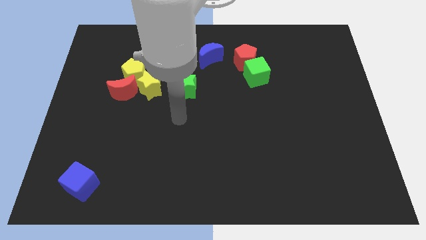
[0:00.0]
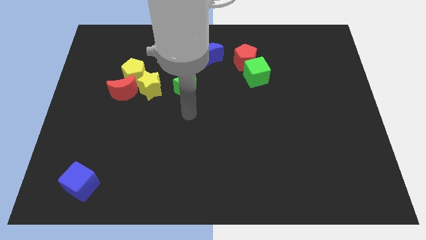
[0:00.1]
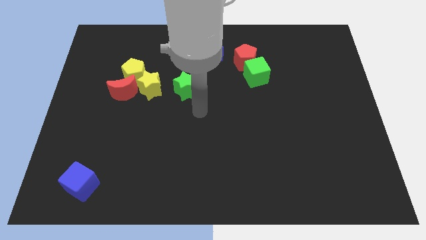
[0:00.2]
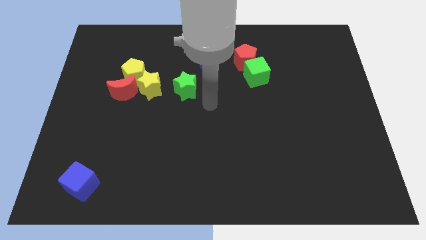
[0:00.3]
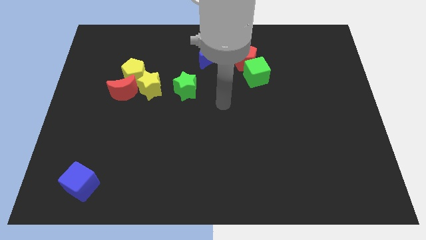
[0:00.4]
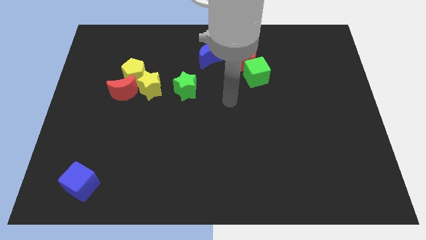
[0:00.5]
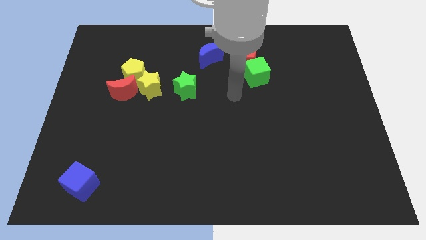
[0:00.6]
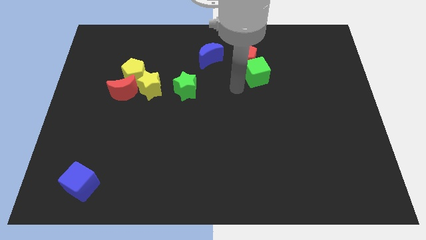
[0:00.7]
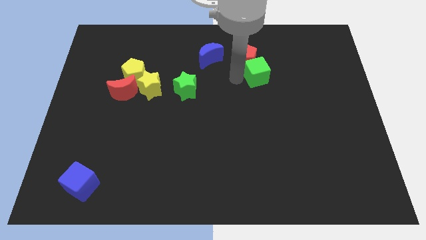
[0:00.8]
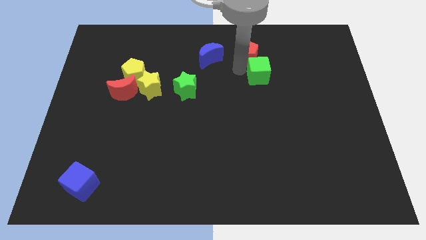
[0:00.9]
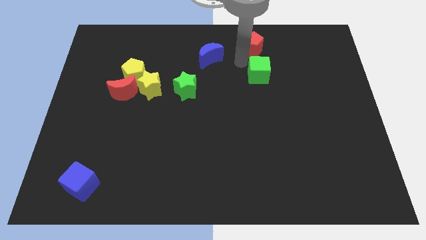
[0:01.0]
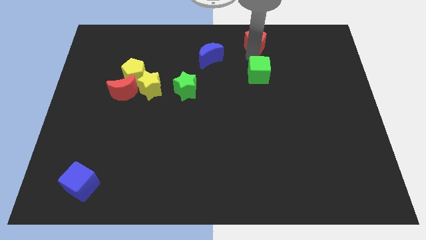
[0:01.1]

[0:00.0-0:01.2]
separate the green cube from the red pentagon

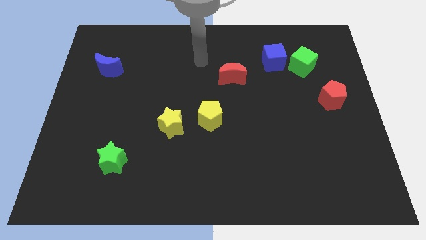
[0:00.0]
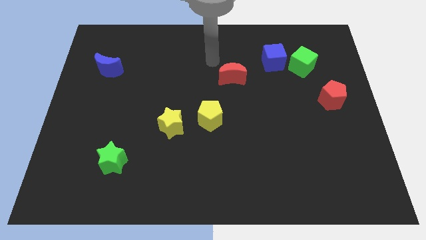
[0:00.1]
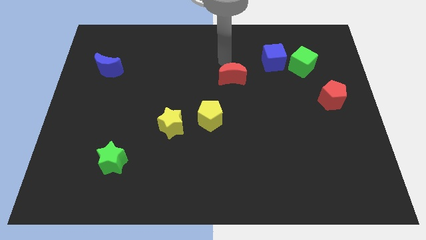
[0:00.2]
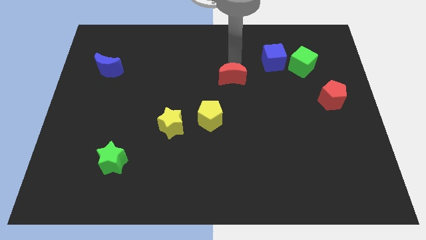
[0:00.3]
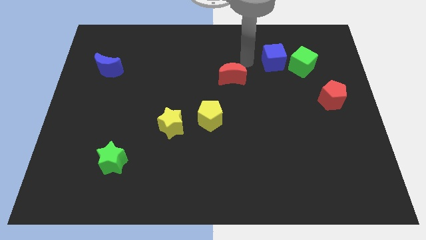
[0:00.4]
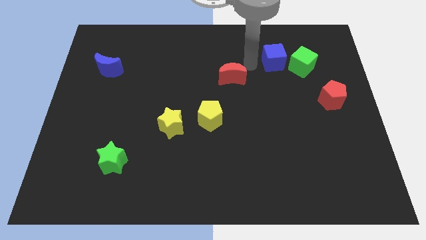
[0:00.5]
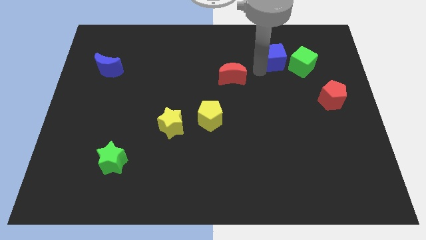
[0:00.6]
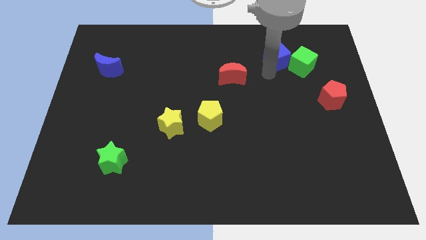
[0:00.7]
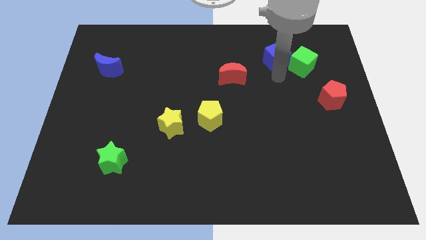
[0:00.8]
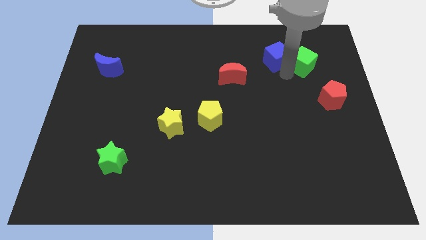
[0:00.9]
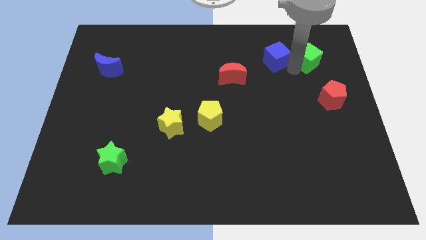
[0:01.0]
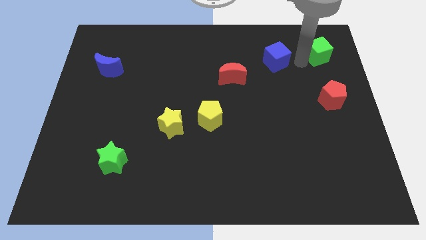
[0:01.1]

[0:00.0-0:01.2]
move the blue cube away from the green cube

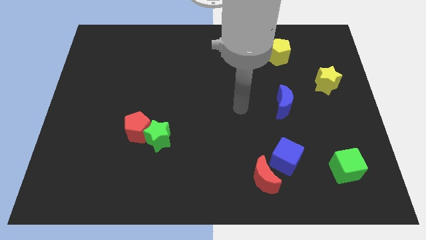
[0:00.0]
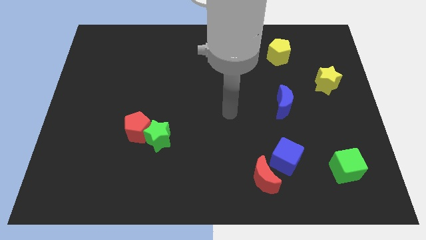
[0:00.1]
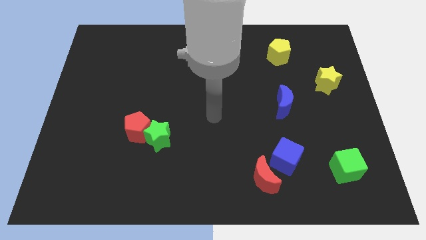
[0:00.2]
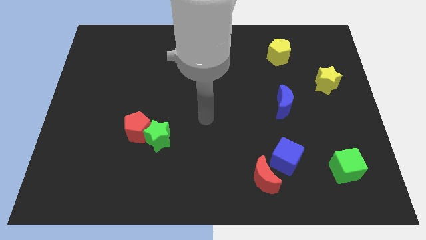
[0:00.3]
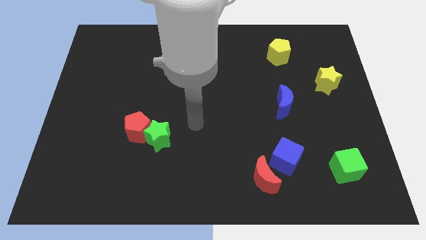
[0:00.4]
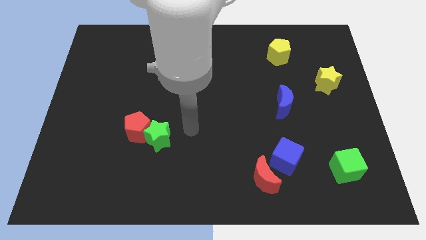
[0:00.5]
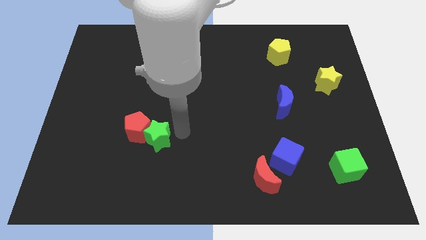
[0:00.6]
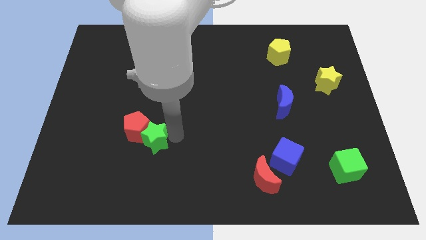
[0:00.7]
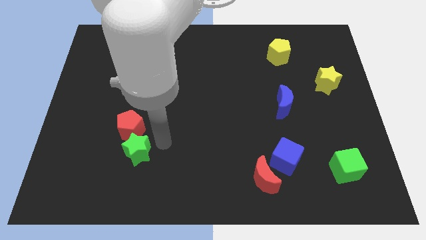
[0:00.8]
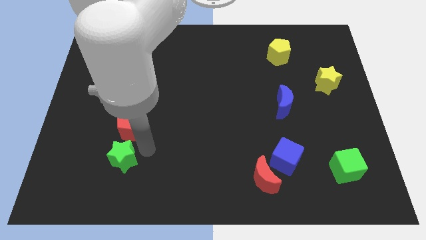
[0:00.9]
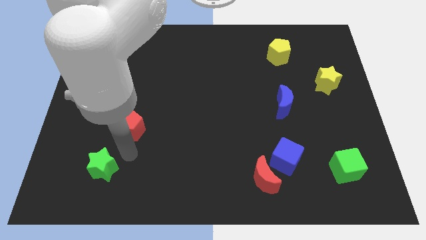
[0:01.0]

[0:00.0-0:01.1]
pull the red pentagon apart from the green star

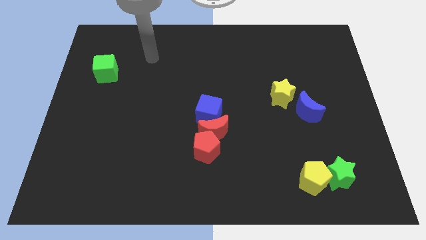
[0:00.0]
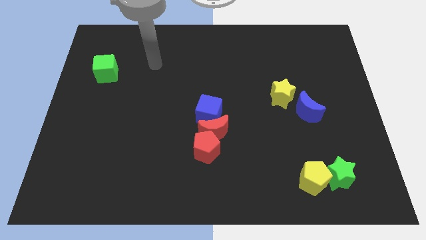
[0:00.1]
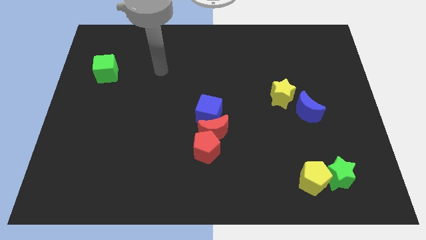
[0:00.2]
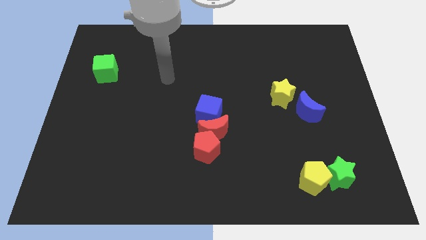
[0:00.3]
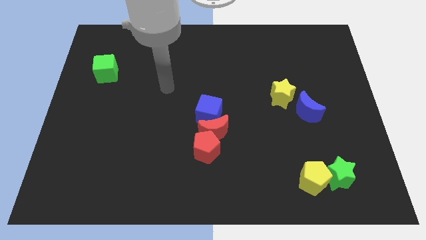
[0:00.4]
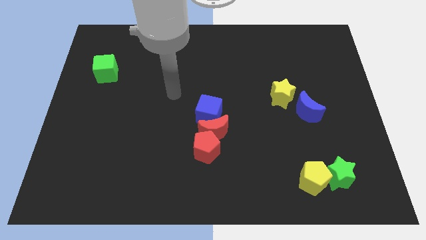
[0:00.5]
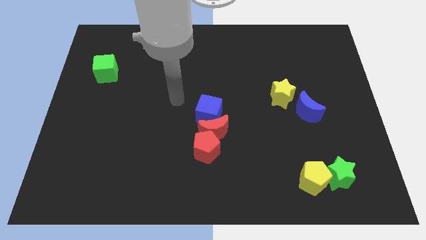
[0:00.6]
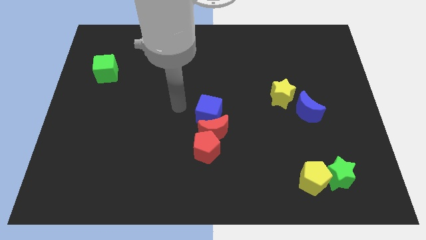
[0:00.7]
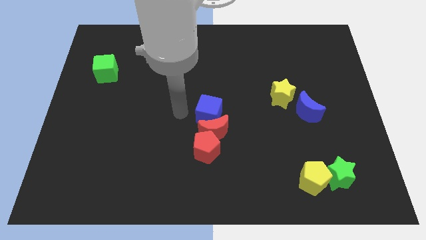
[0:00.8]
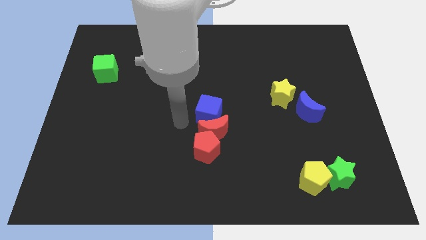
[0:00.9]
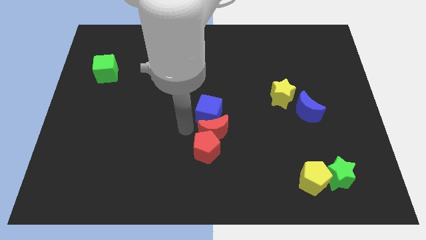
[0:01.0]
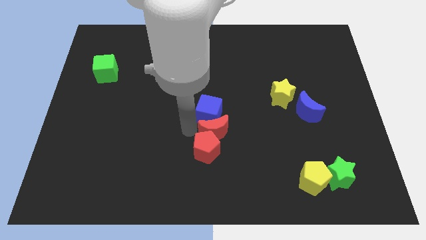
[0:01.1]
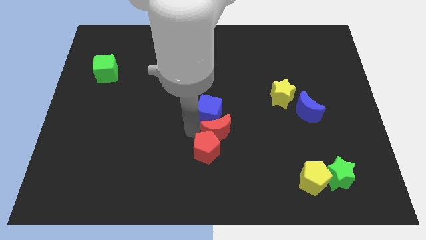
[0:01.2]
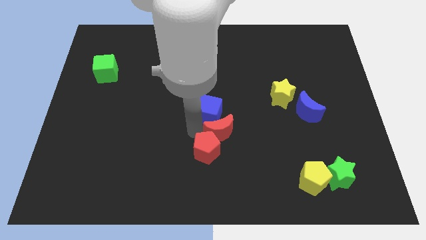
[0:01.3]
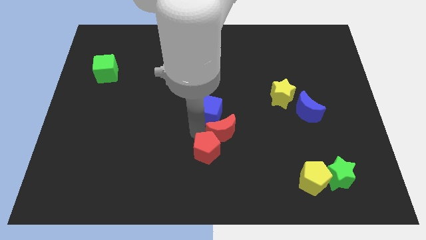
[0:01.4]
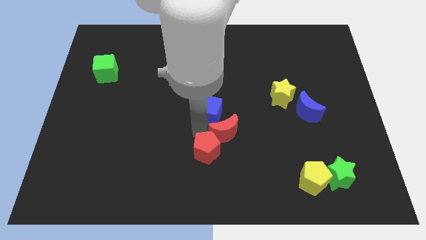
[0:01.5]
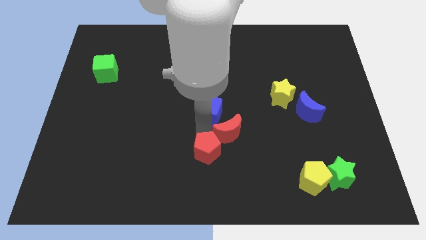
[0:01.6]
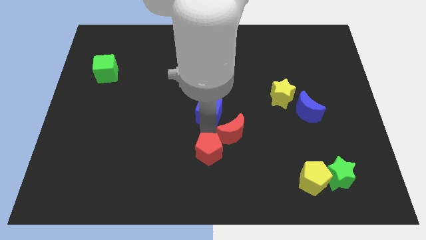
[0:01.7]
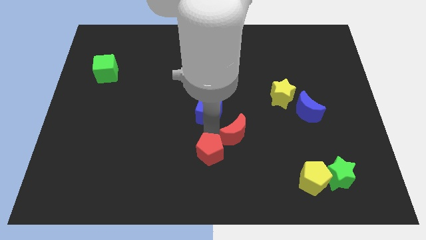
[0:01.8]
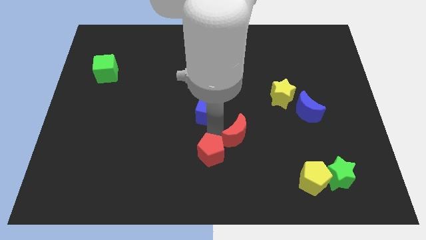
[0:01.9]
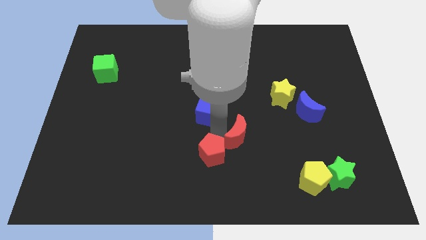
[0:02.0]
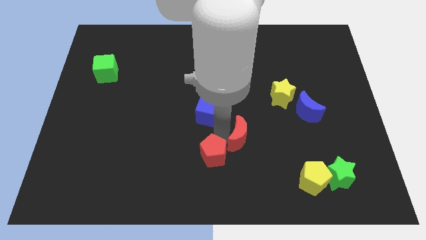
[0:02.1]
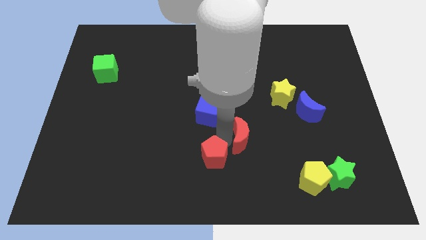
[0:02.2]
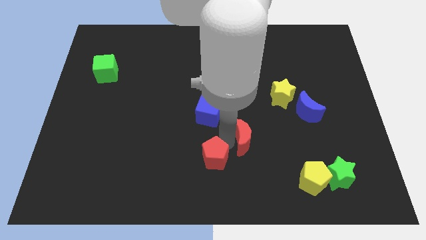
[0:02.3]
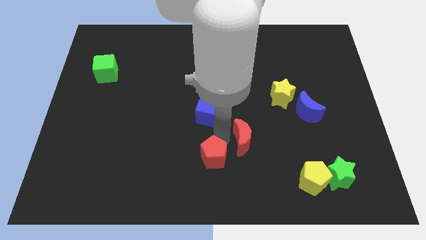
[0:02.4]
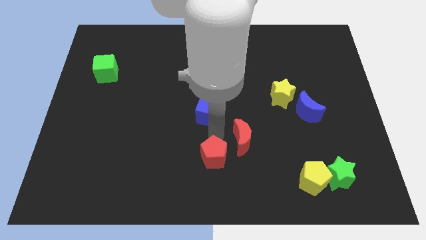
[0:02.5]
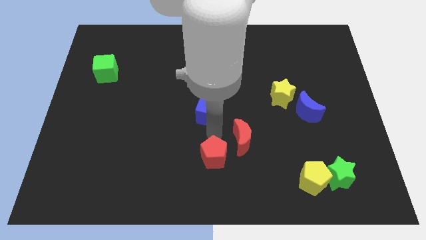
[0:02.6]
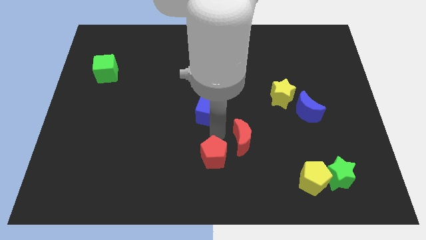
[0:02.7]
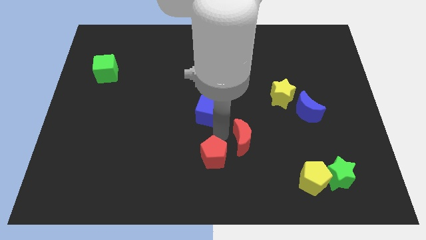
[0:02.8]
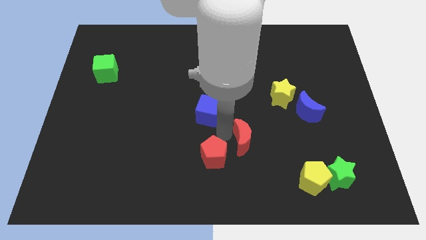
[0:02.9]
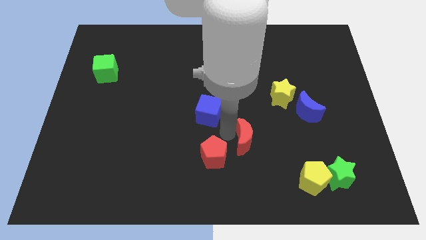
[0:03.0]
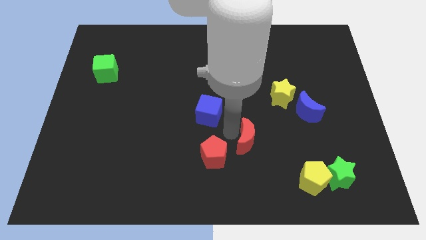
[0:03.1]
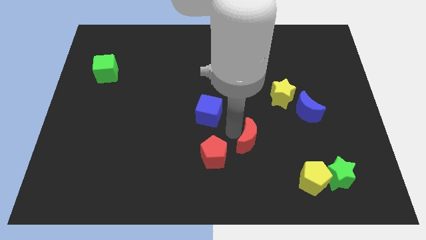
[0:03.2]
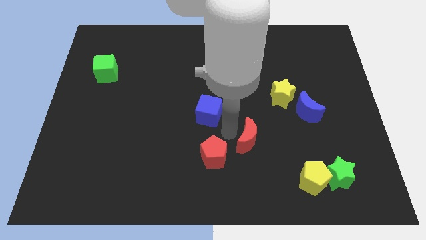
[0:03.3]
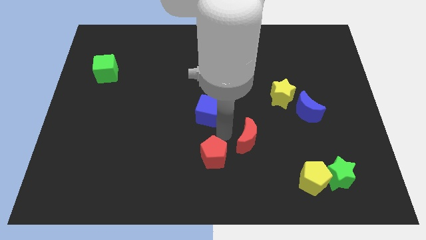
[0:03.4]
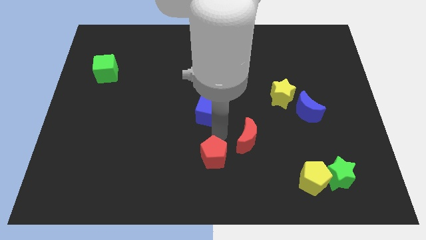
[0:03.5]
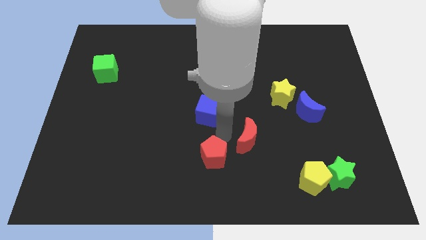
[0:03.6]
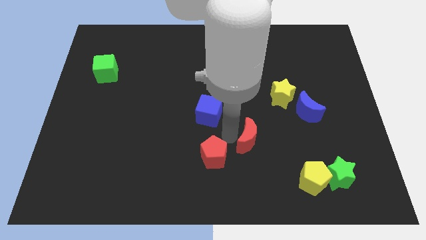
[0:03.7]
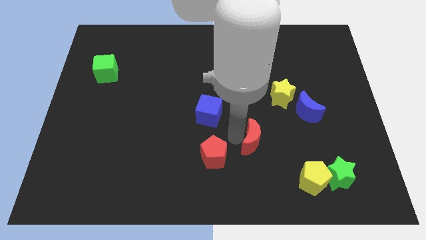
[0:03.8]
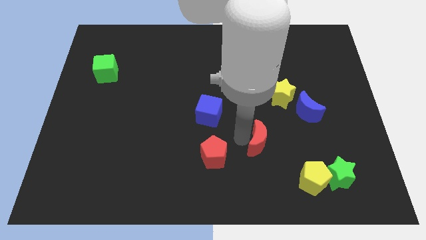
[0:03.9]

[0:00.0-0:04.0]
separate the red moon from the red pentagon and blue cube

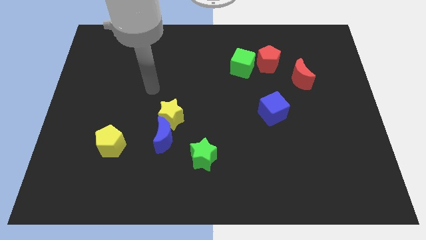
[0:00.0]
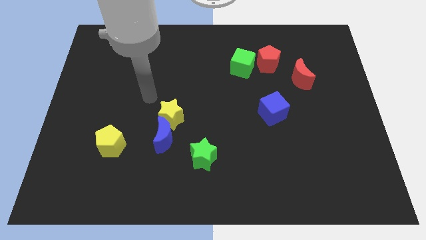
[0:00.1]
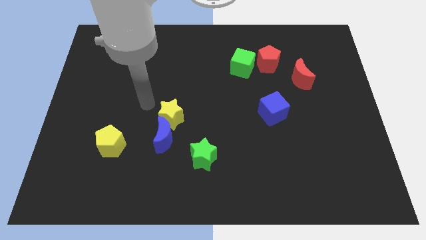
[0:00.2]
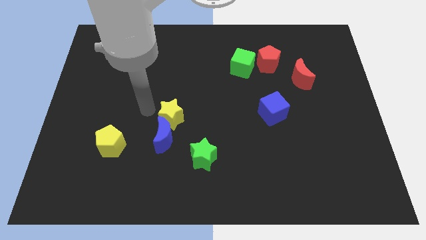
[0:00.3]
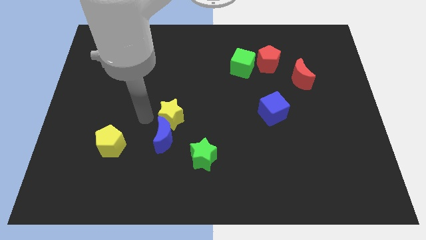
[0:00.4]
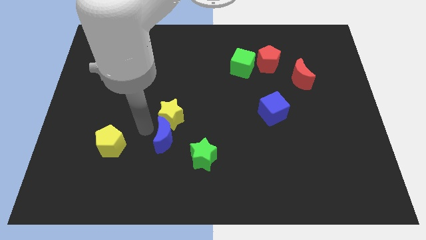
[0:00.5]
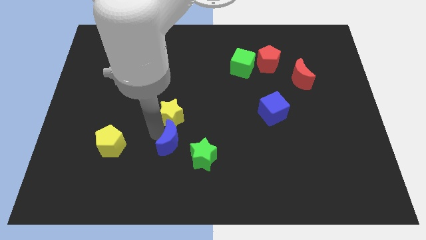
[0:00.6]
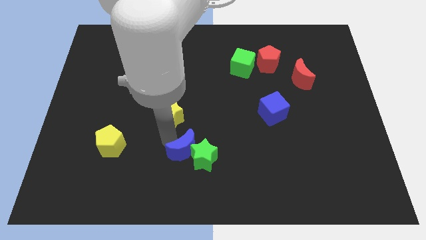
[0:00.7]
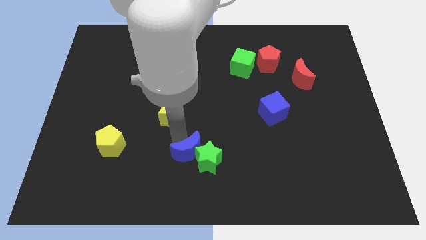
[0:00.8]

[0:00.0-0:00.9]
pull the yellow star apart from the blue moon

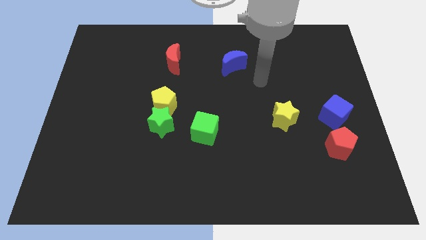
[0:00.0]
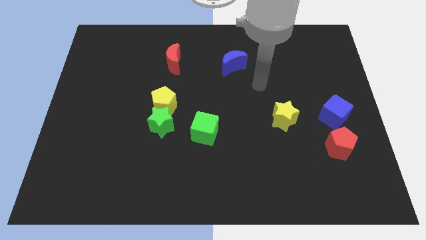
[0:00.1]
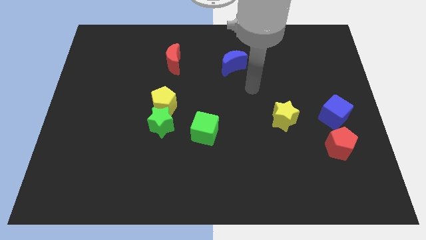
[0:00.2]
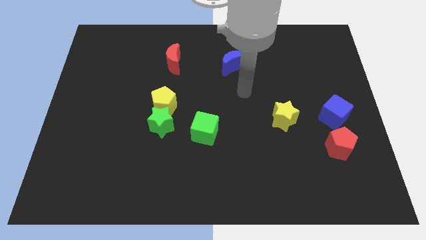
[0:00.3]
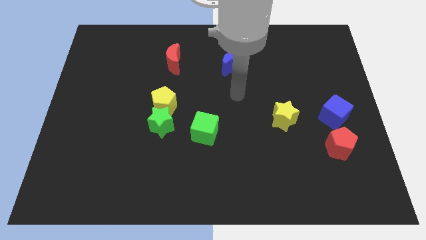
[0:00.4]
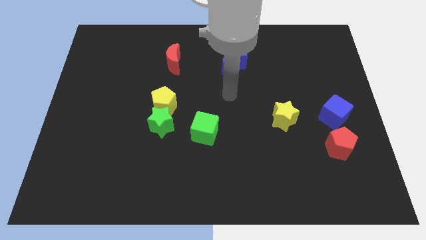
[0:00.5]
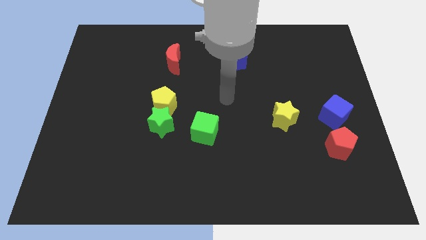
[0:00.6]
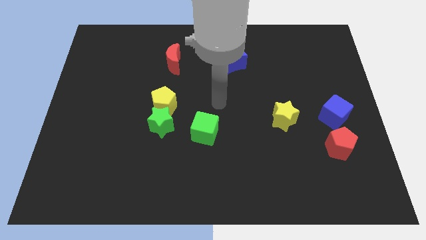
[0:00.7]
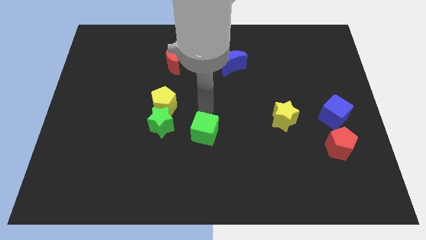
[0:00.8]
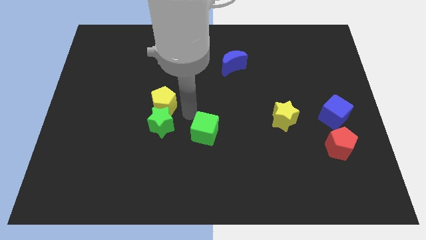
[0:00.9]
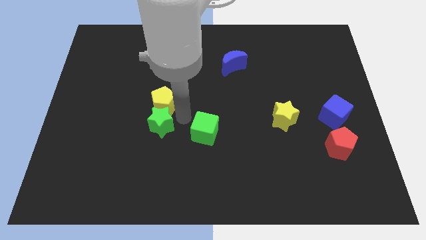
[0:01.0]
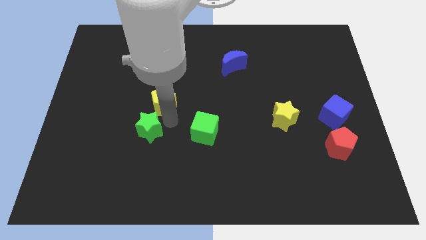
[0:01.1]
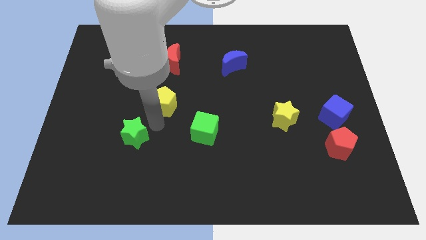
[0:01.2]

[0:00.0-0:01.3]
move the yellow pentagon away from the green star
